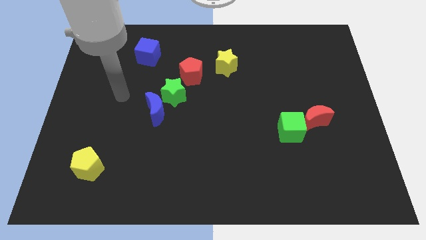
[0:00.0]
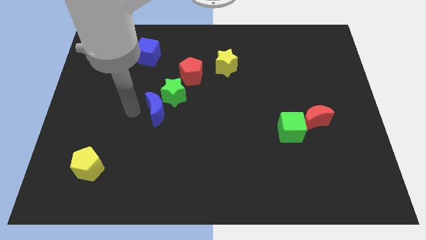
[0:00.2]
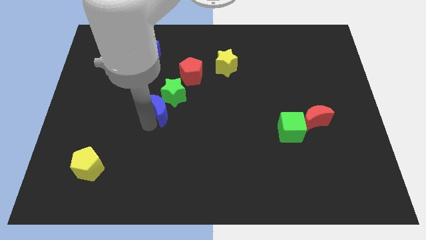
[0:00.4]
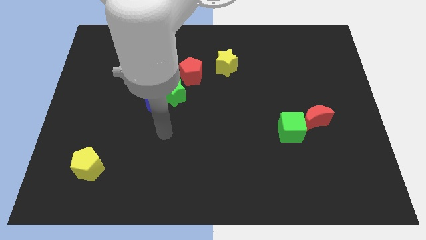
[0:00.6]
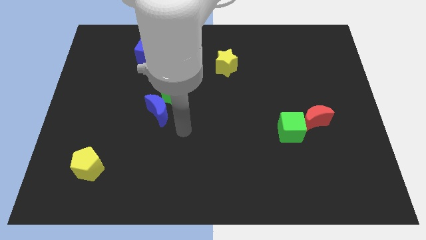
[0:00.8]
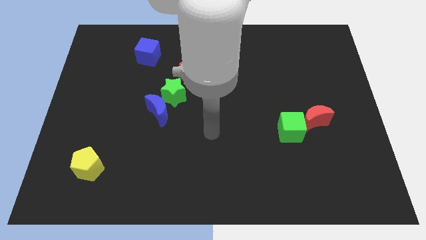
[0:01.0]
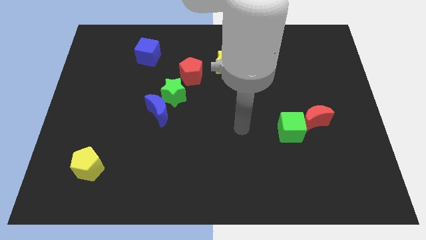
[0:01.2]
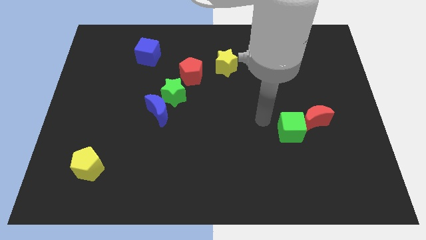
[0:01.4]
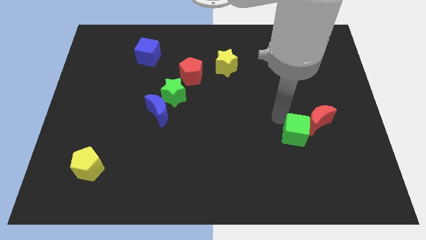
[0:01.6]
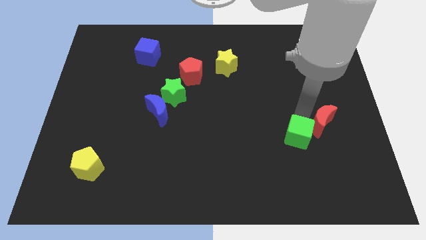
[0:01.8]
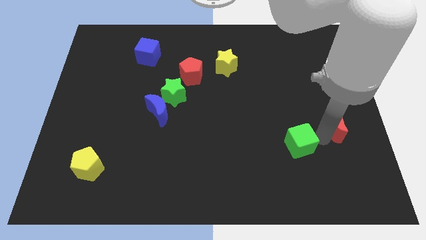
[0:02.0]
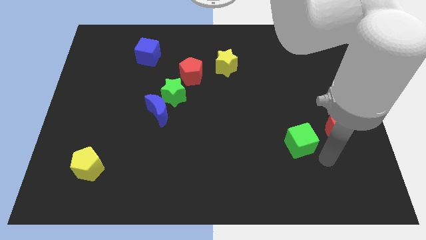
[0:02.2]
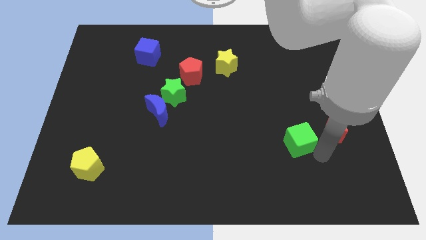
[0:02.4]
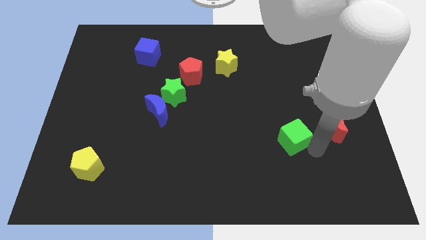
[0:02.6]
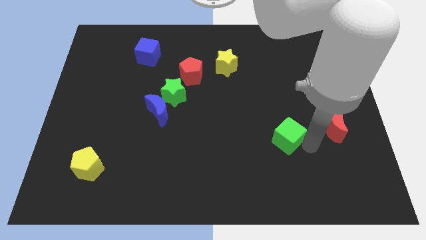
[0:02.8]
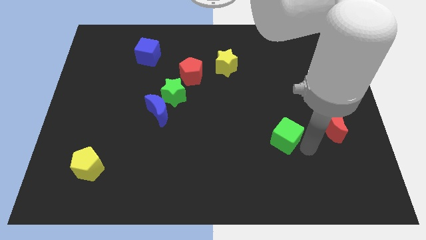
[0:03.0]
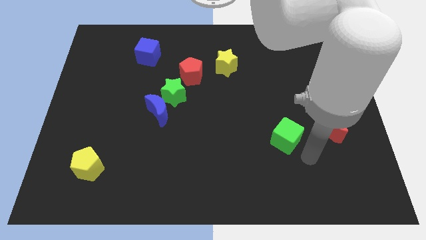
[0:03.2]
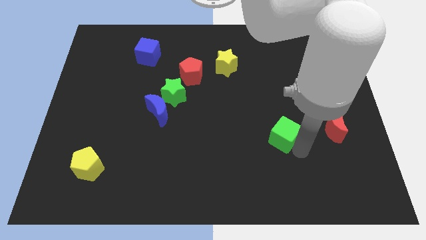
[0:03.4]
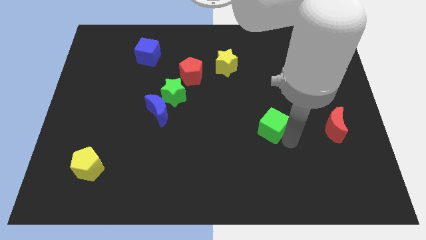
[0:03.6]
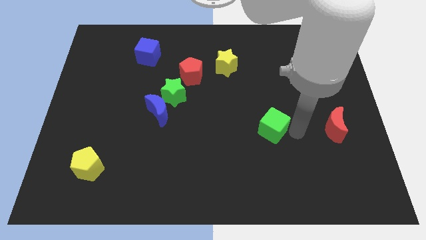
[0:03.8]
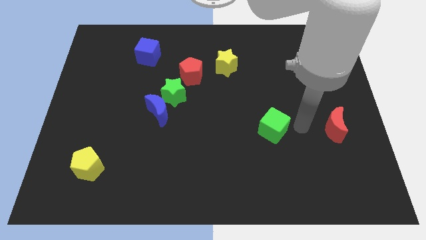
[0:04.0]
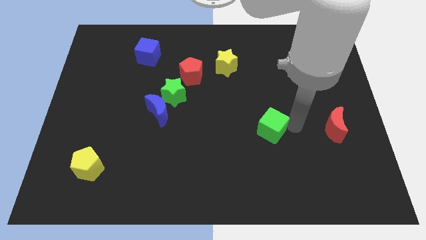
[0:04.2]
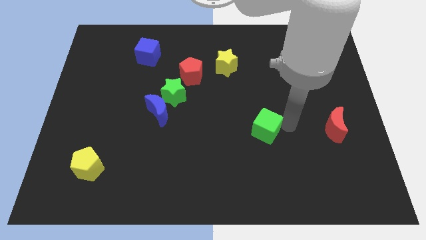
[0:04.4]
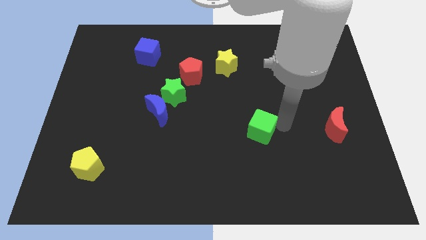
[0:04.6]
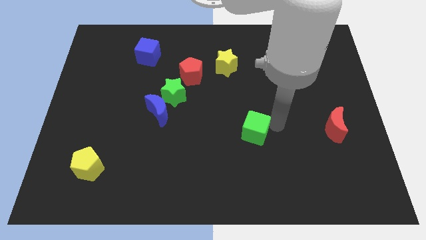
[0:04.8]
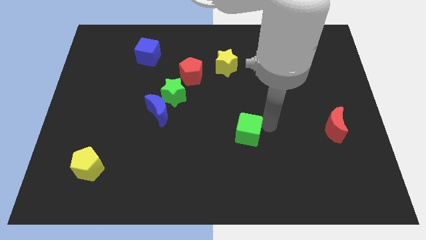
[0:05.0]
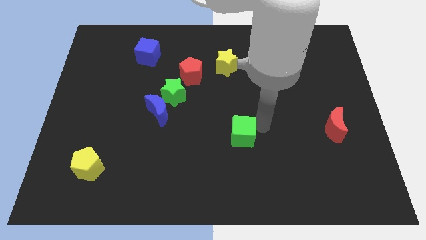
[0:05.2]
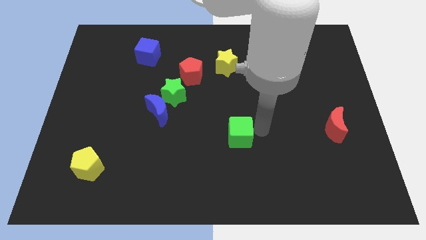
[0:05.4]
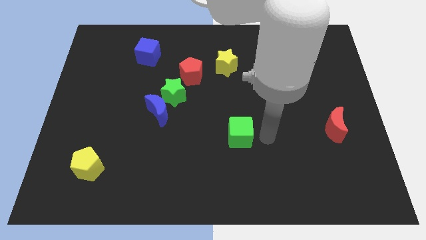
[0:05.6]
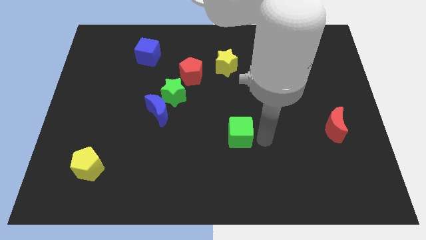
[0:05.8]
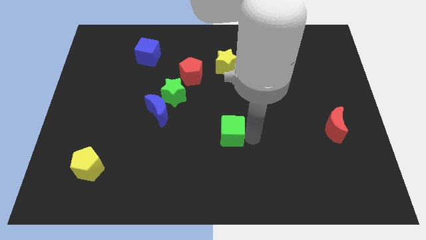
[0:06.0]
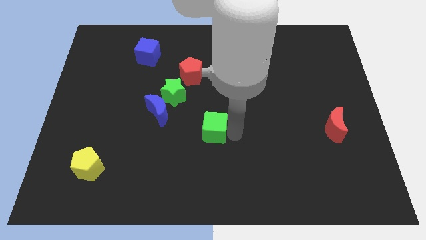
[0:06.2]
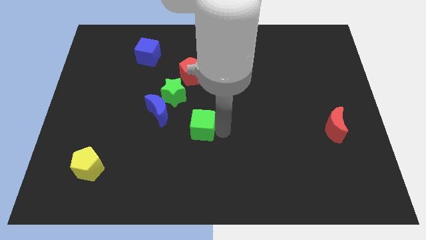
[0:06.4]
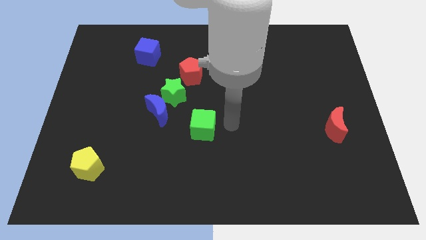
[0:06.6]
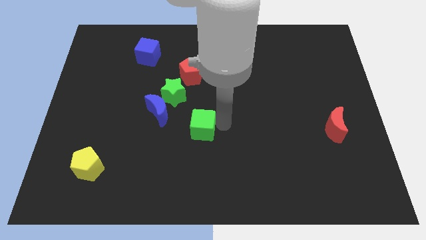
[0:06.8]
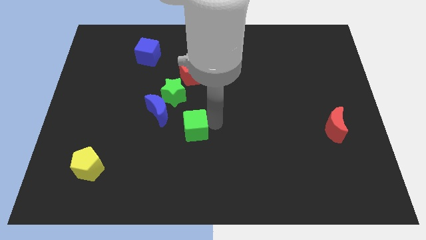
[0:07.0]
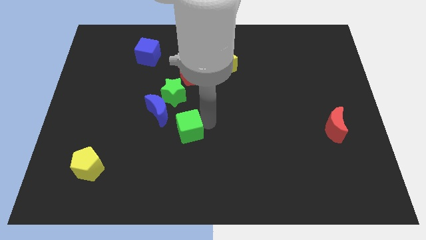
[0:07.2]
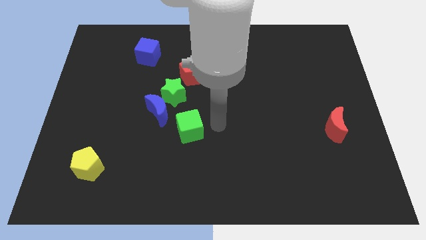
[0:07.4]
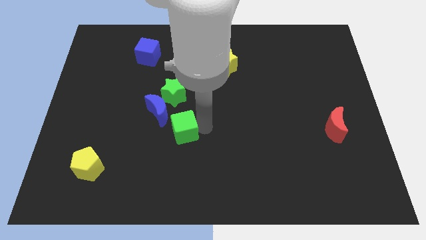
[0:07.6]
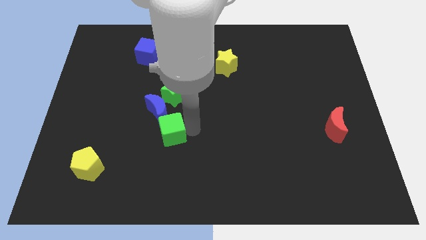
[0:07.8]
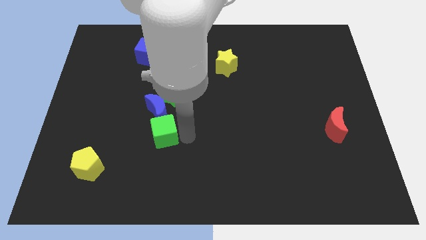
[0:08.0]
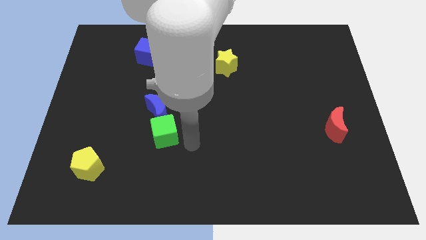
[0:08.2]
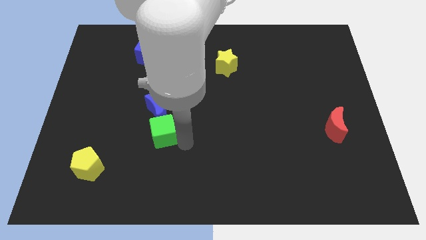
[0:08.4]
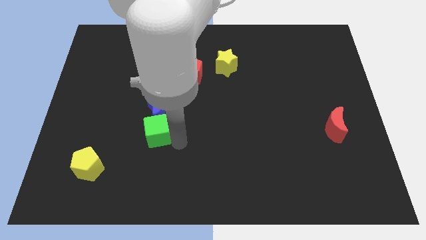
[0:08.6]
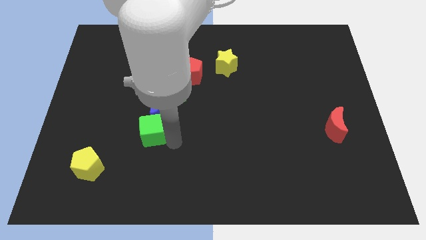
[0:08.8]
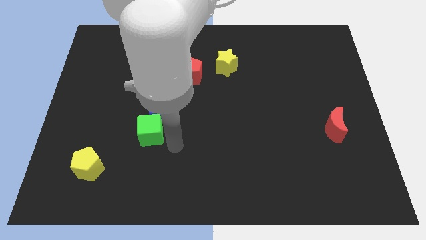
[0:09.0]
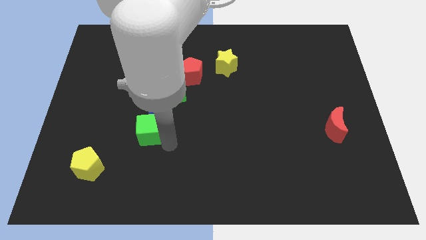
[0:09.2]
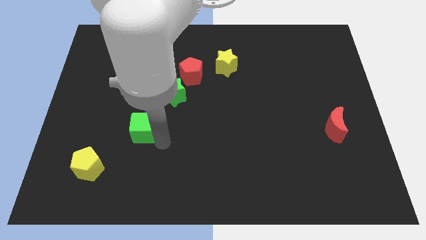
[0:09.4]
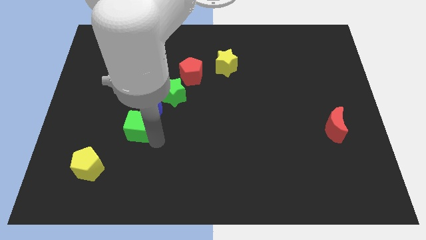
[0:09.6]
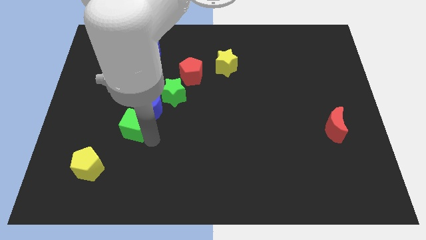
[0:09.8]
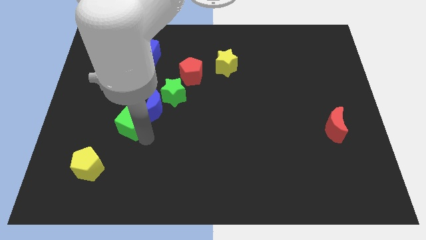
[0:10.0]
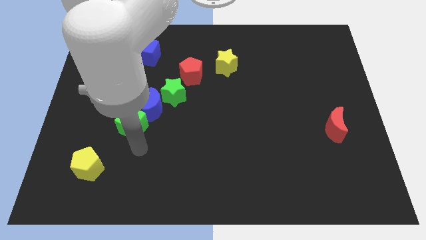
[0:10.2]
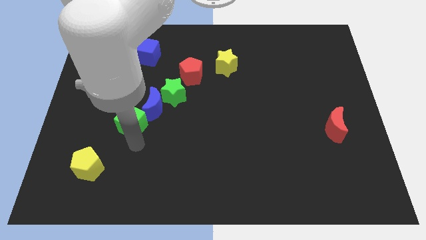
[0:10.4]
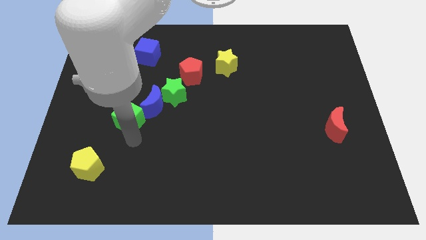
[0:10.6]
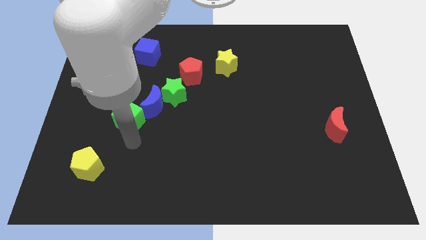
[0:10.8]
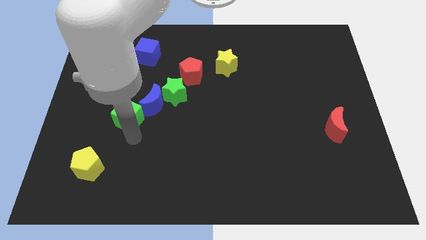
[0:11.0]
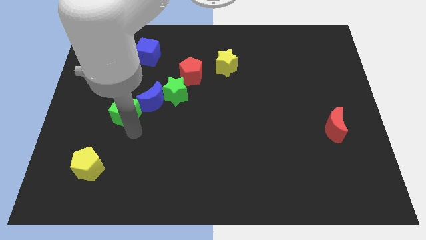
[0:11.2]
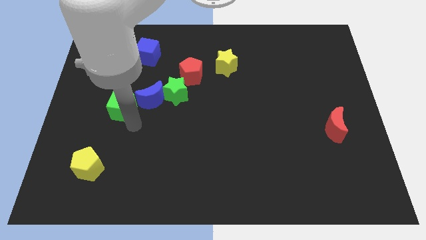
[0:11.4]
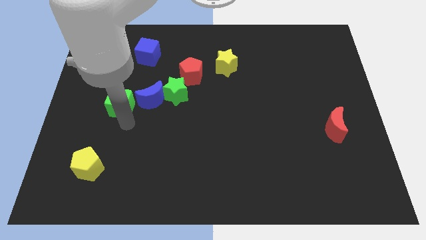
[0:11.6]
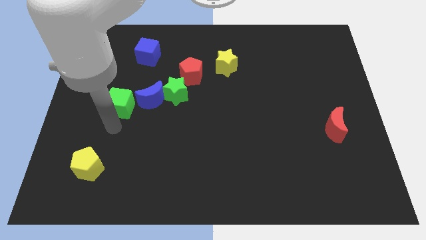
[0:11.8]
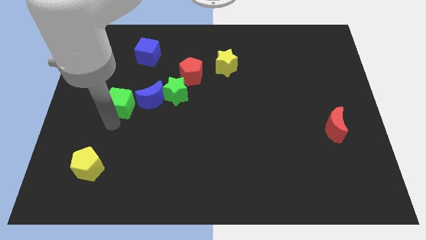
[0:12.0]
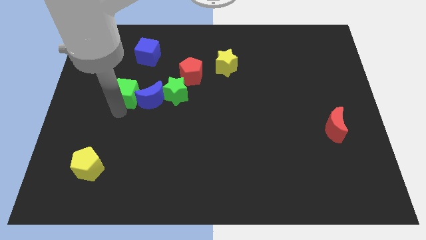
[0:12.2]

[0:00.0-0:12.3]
move the green cube to the top left side of the blue moon

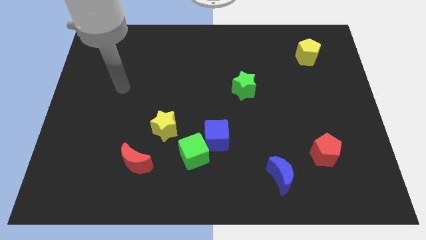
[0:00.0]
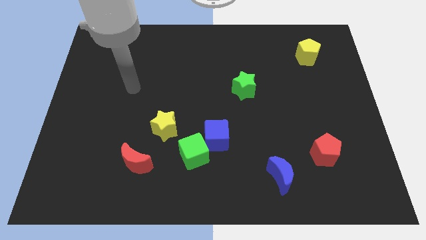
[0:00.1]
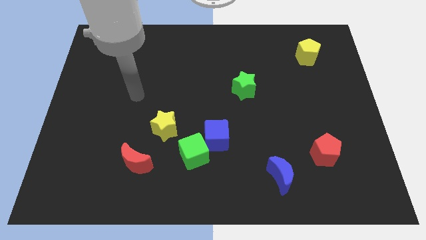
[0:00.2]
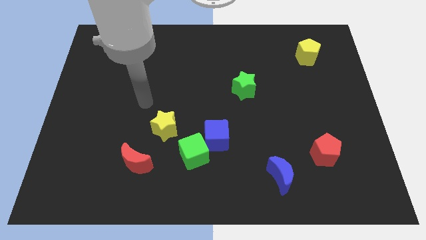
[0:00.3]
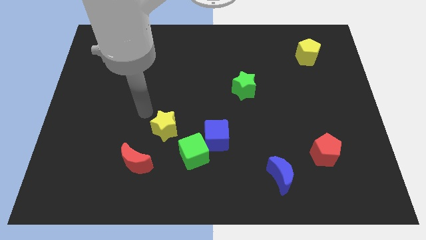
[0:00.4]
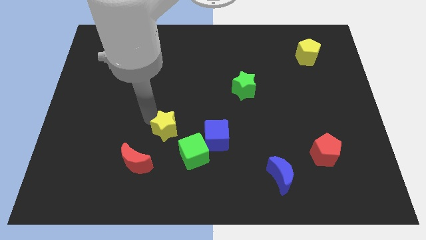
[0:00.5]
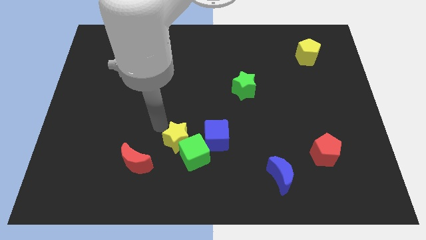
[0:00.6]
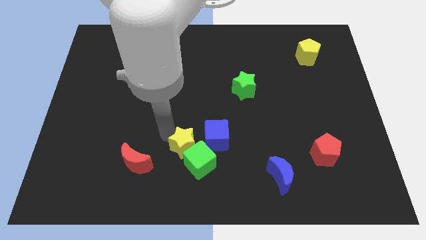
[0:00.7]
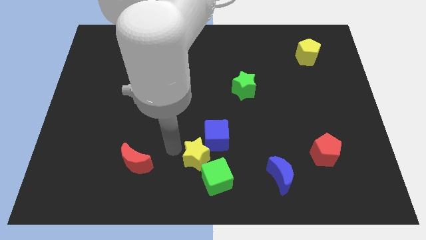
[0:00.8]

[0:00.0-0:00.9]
move the green cube to the left side of the blue moon

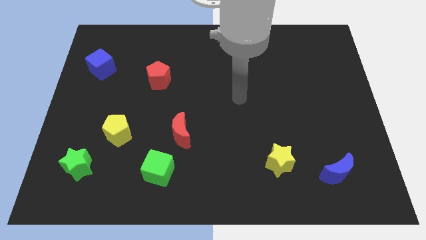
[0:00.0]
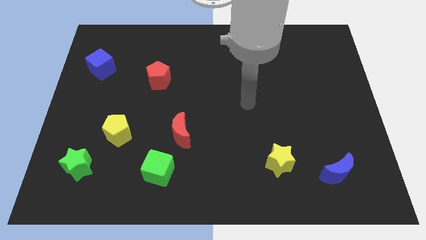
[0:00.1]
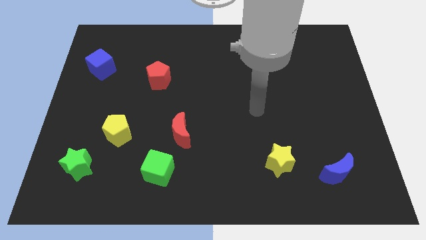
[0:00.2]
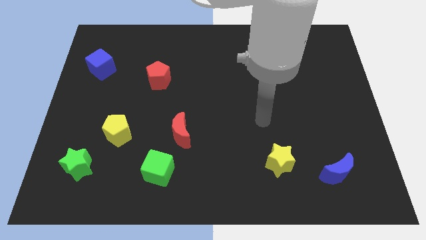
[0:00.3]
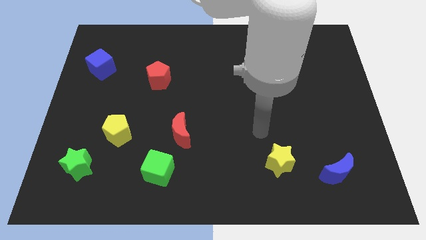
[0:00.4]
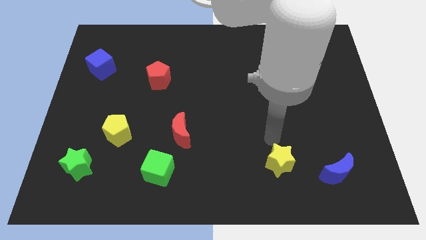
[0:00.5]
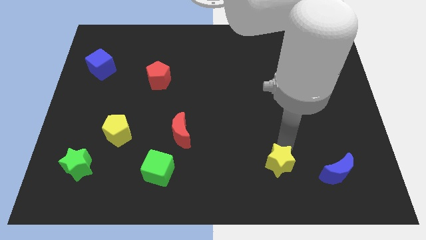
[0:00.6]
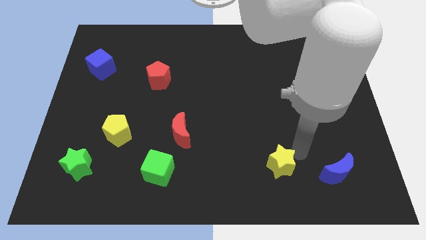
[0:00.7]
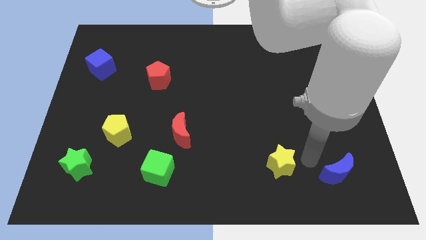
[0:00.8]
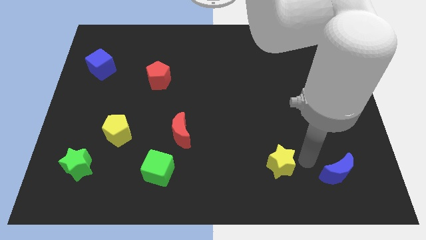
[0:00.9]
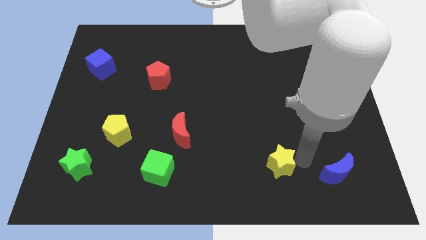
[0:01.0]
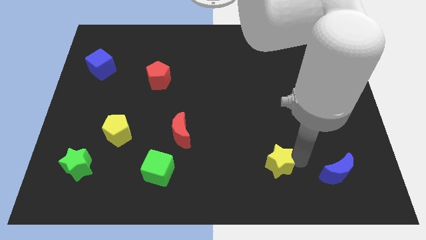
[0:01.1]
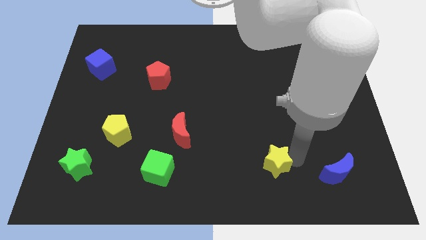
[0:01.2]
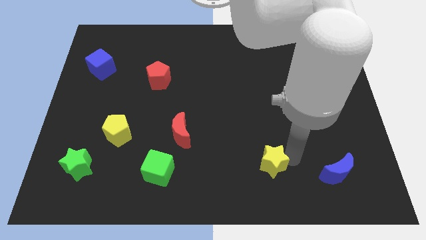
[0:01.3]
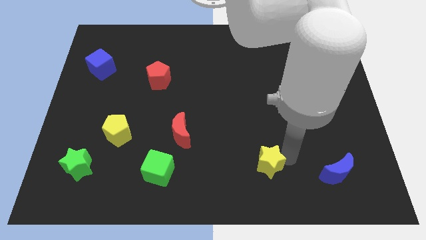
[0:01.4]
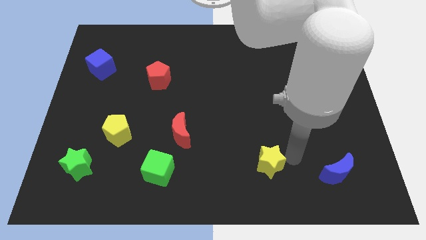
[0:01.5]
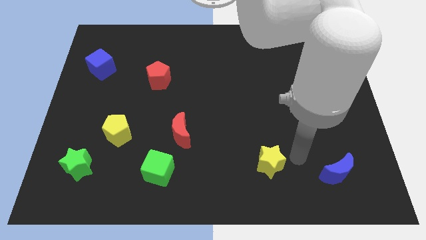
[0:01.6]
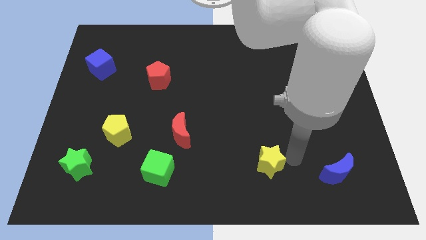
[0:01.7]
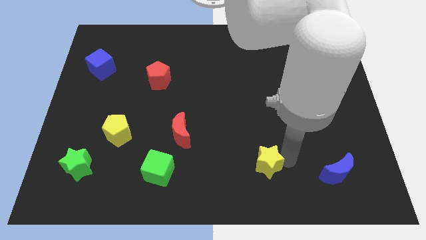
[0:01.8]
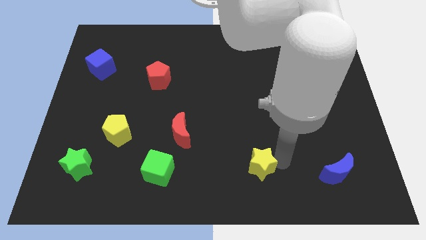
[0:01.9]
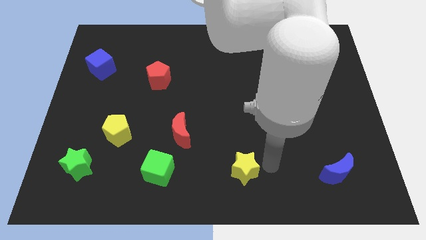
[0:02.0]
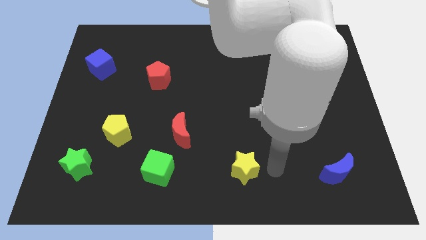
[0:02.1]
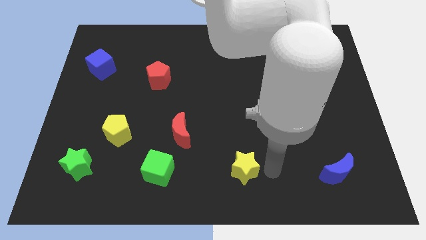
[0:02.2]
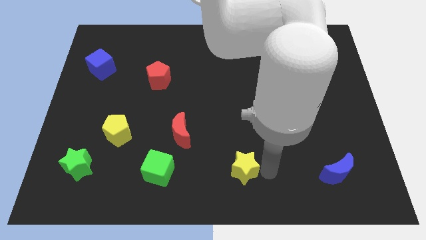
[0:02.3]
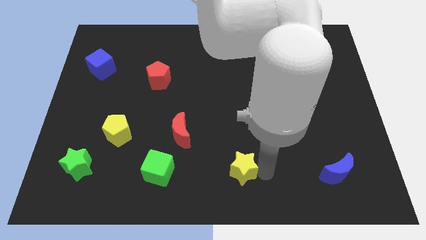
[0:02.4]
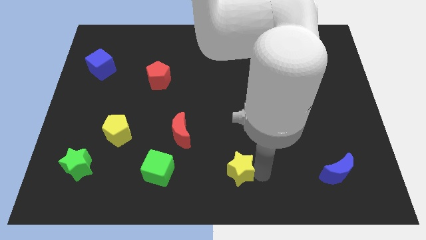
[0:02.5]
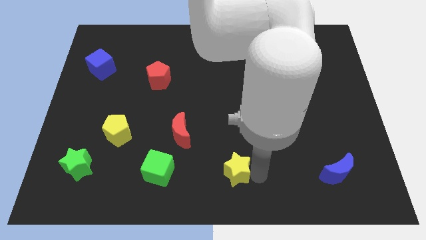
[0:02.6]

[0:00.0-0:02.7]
slide the yellow star to the right of the green cube
